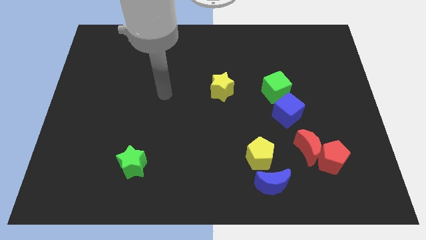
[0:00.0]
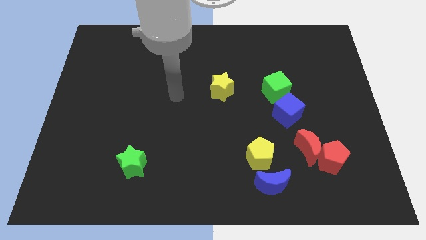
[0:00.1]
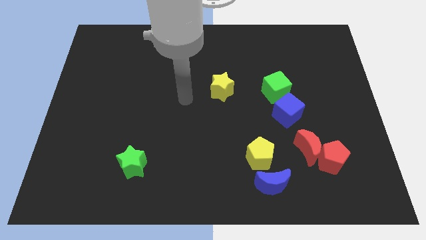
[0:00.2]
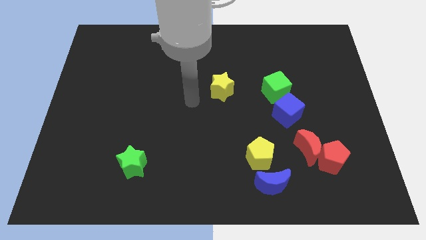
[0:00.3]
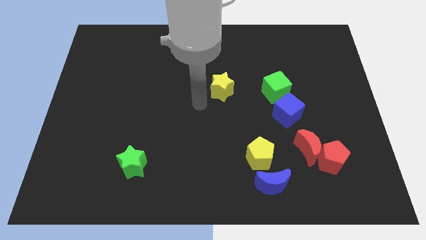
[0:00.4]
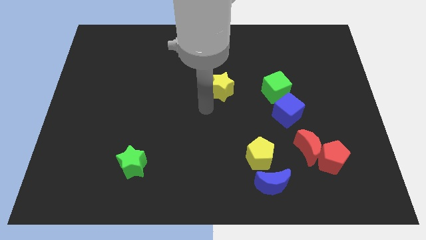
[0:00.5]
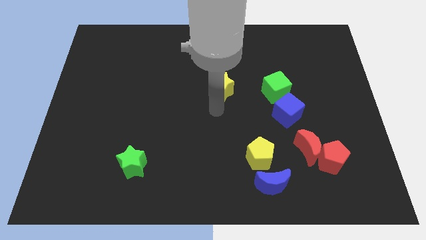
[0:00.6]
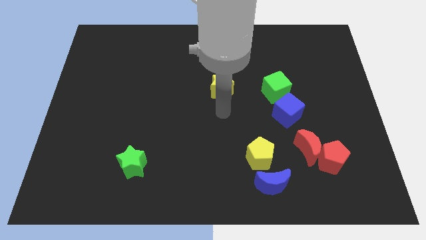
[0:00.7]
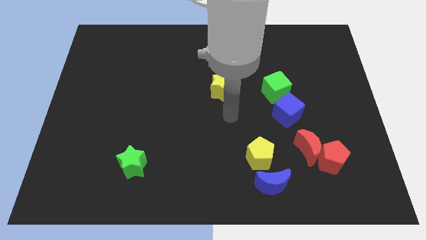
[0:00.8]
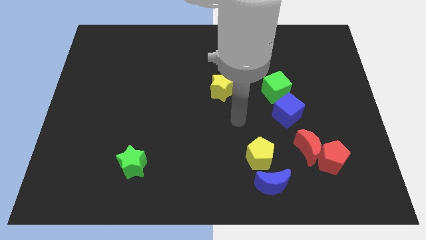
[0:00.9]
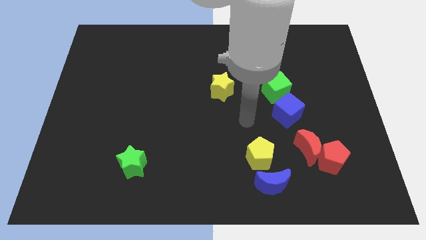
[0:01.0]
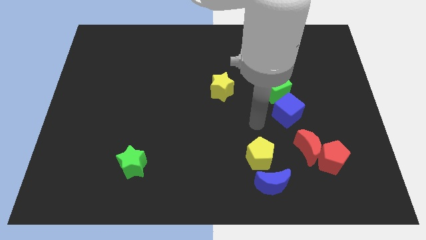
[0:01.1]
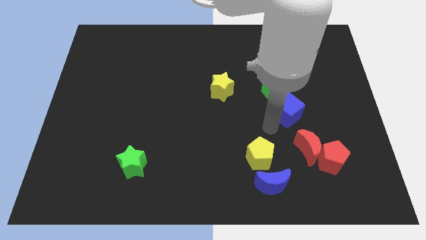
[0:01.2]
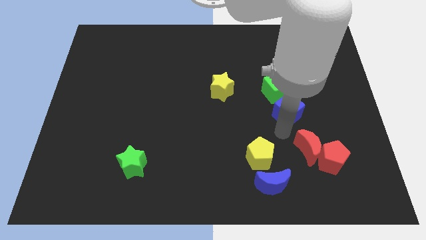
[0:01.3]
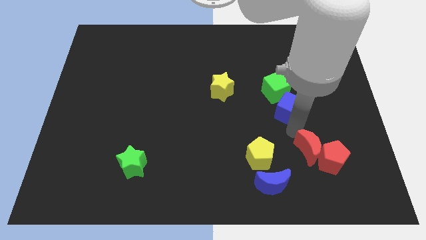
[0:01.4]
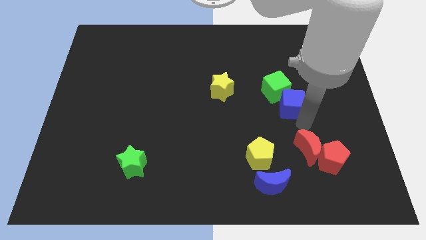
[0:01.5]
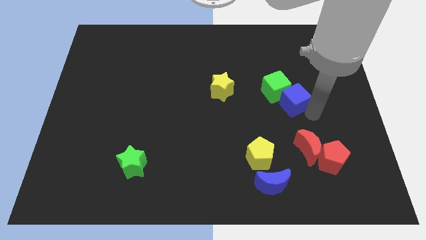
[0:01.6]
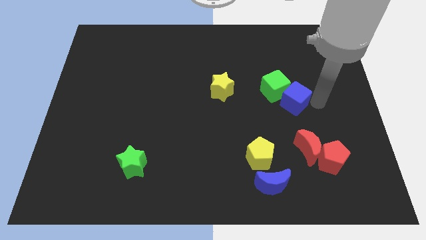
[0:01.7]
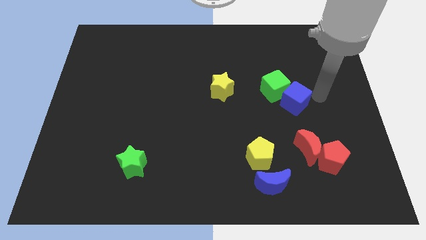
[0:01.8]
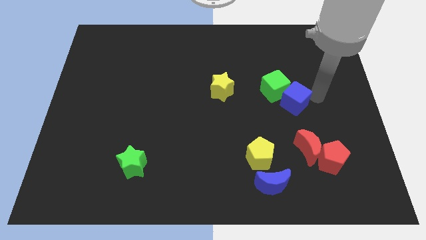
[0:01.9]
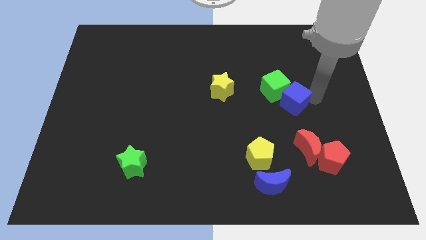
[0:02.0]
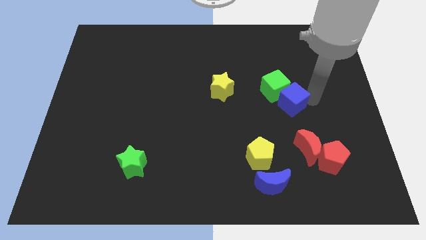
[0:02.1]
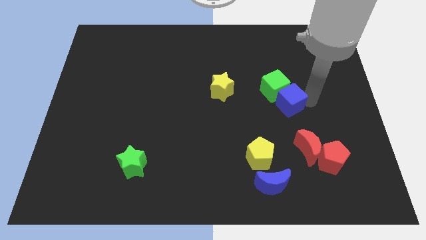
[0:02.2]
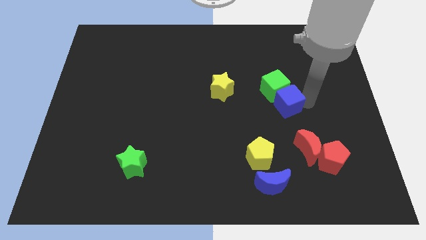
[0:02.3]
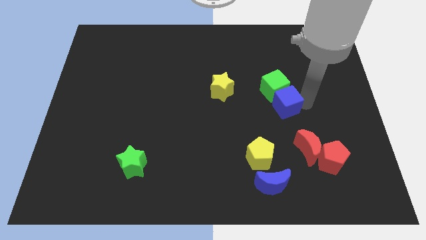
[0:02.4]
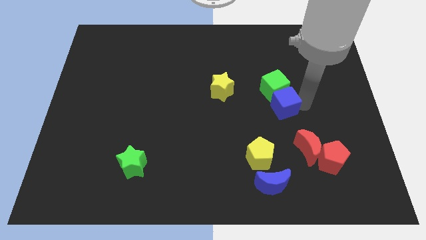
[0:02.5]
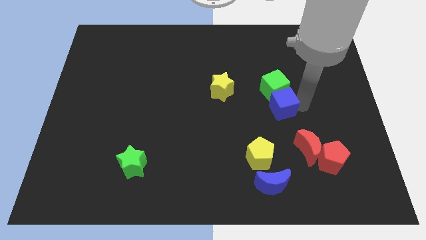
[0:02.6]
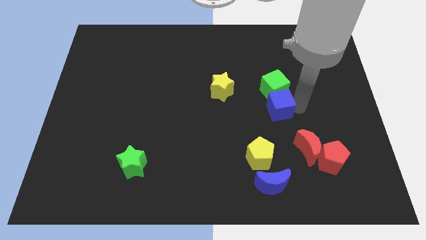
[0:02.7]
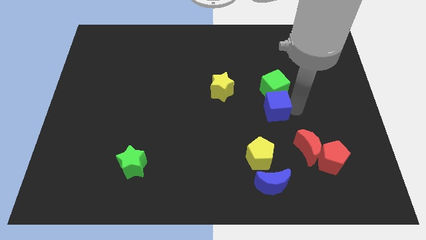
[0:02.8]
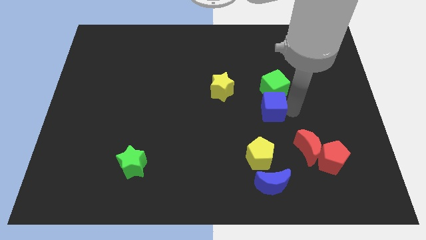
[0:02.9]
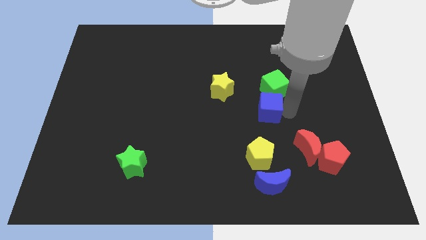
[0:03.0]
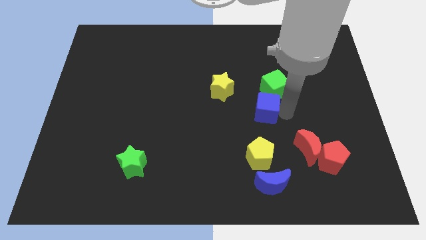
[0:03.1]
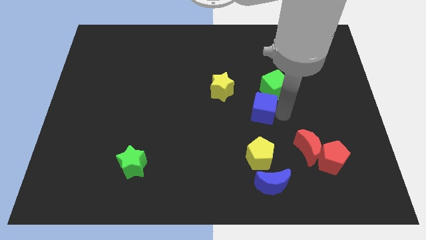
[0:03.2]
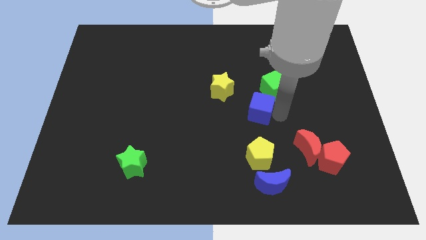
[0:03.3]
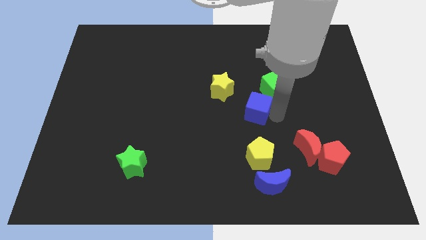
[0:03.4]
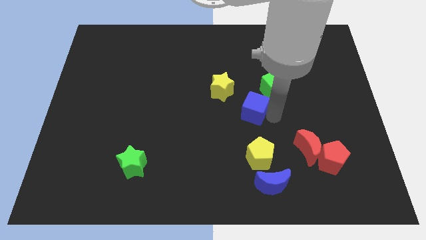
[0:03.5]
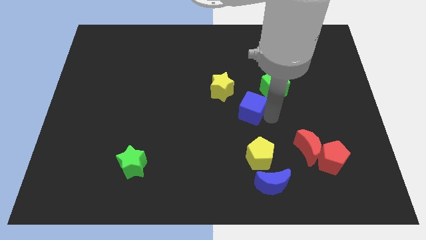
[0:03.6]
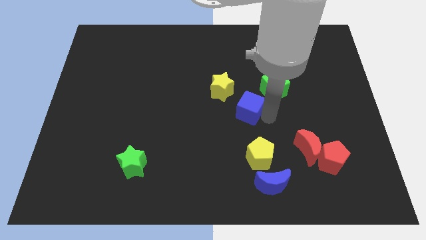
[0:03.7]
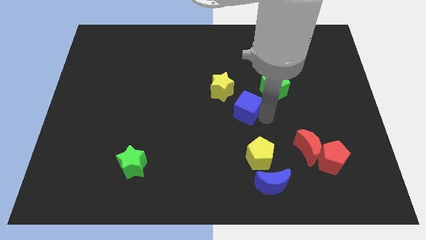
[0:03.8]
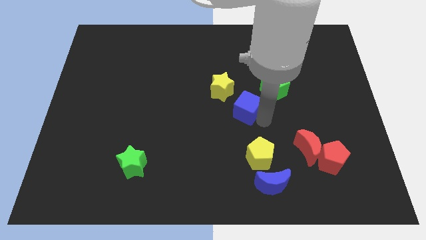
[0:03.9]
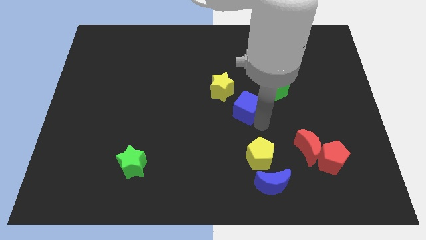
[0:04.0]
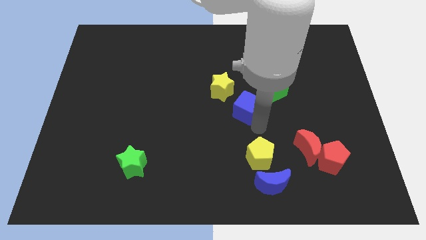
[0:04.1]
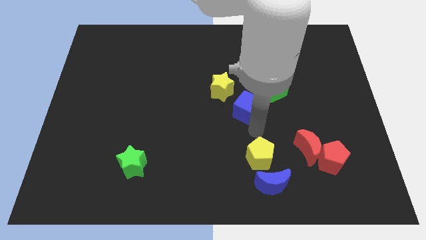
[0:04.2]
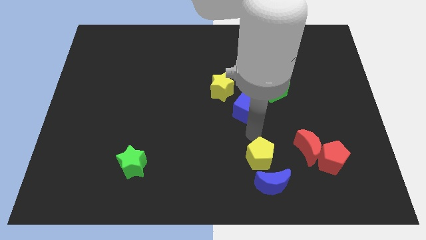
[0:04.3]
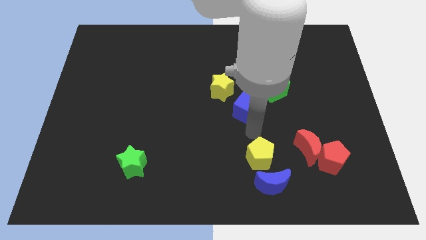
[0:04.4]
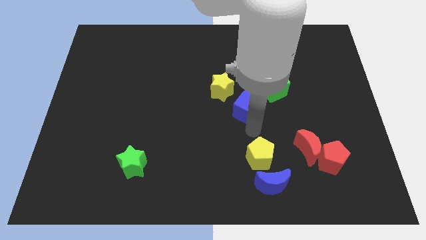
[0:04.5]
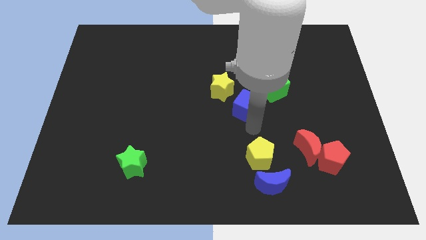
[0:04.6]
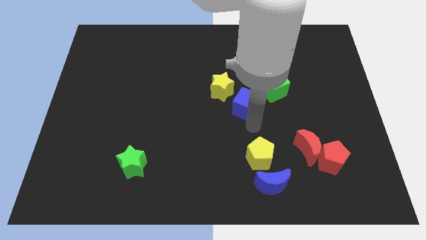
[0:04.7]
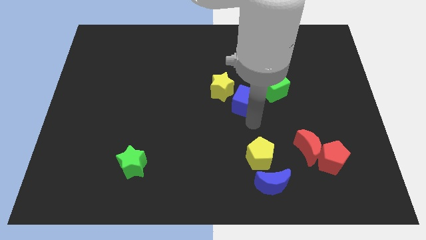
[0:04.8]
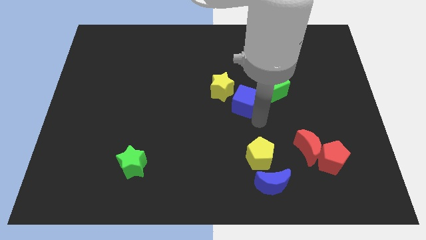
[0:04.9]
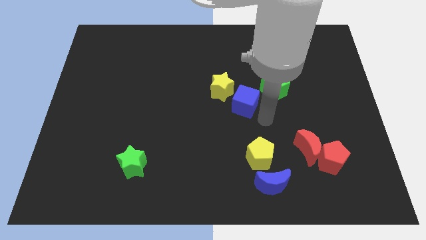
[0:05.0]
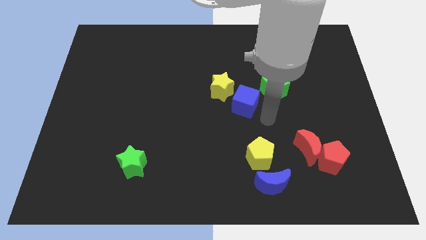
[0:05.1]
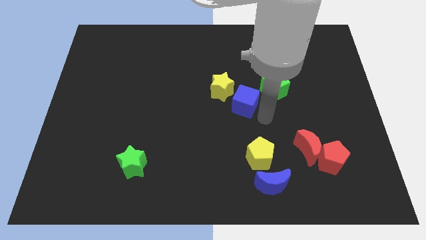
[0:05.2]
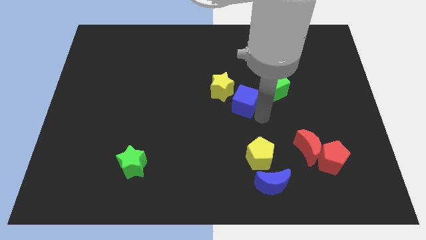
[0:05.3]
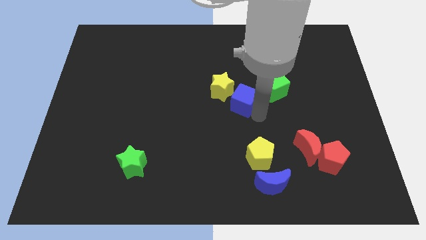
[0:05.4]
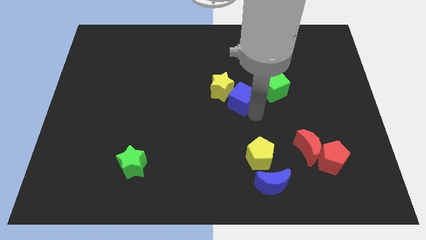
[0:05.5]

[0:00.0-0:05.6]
move the blue cube to the yellow star

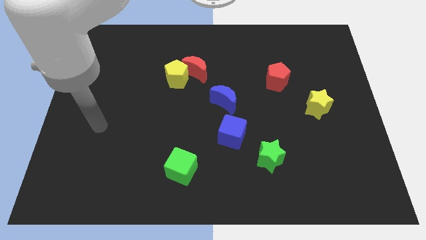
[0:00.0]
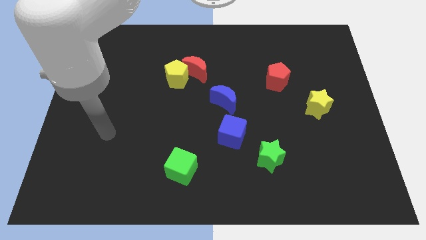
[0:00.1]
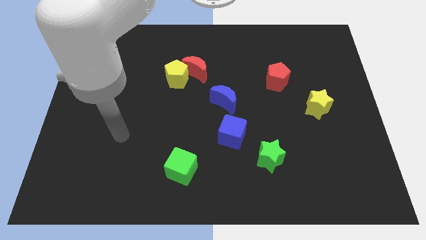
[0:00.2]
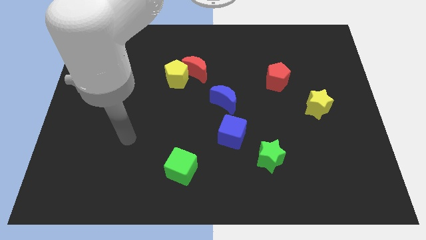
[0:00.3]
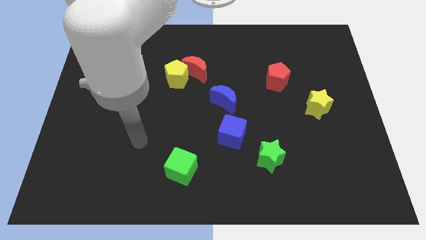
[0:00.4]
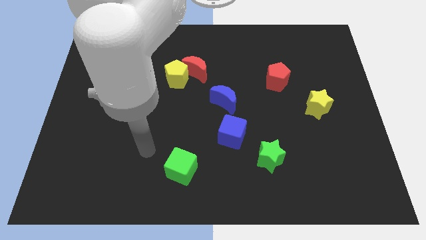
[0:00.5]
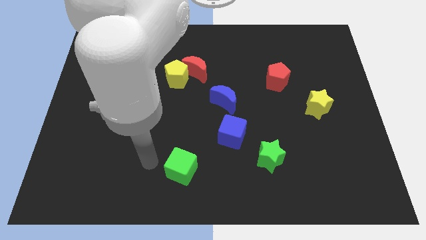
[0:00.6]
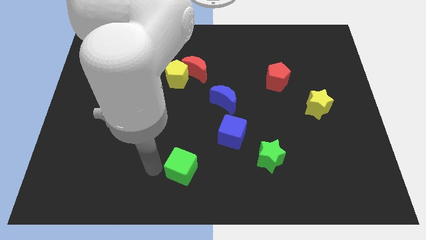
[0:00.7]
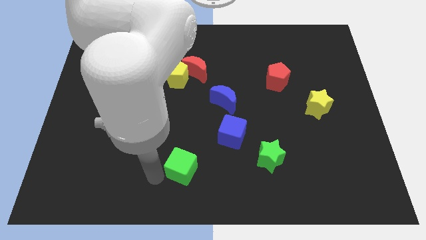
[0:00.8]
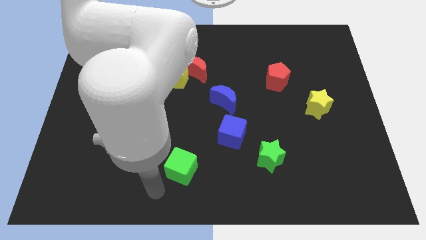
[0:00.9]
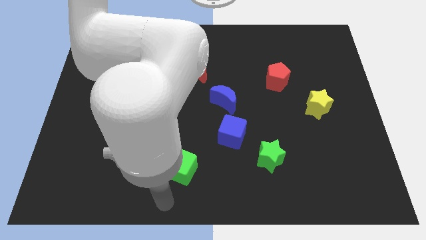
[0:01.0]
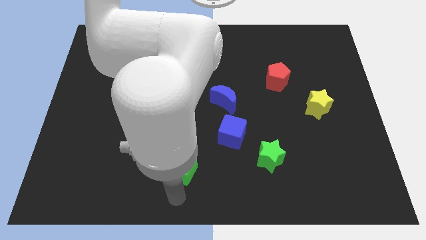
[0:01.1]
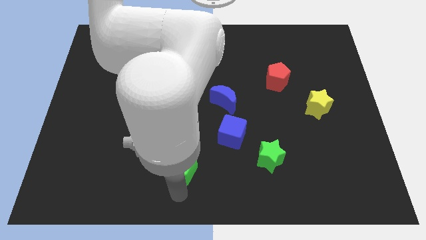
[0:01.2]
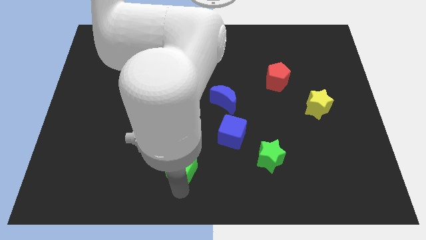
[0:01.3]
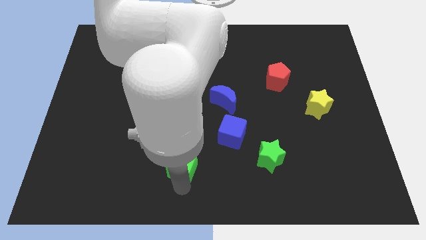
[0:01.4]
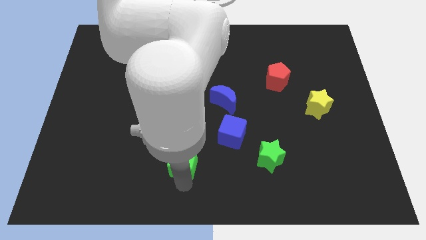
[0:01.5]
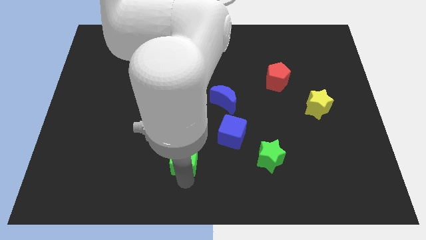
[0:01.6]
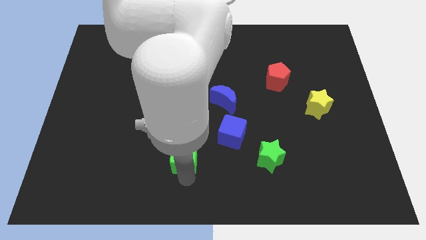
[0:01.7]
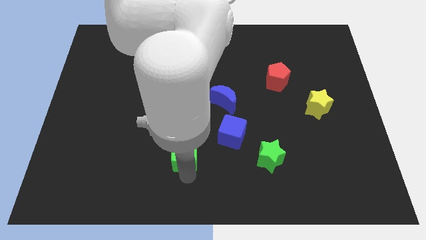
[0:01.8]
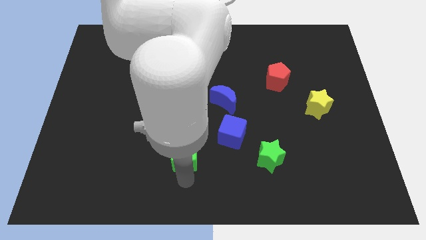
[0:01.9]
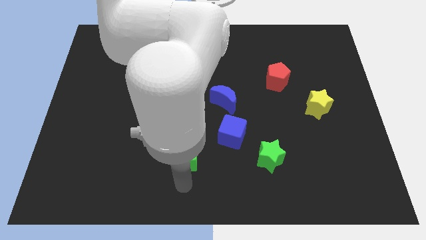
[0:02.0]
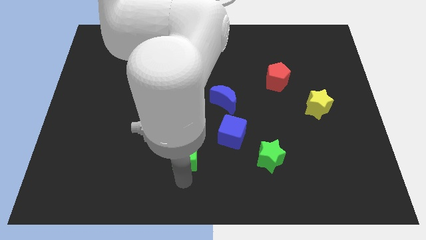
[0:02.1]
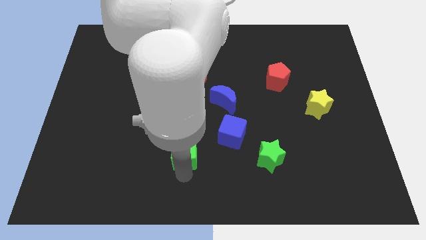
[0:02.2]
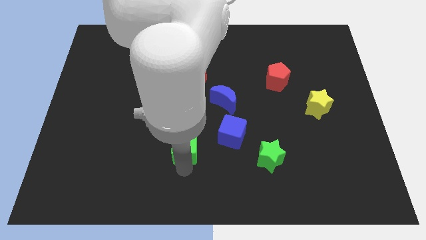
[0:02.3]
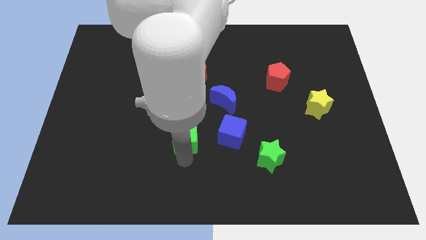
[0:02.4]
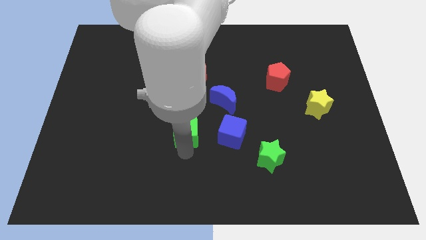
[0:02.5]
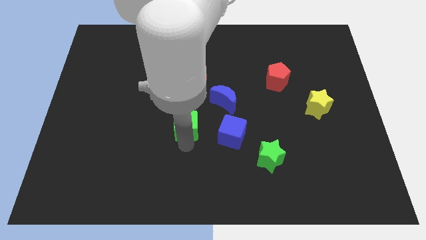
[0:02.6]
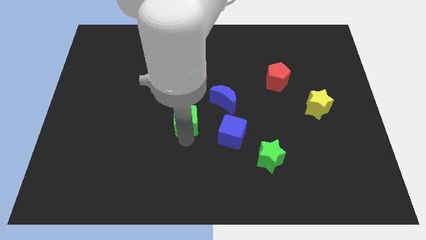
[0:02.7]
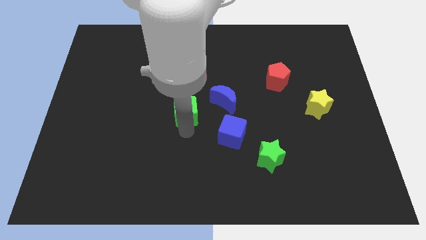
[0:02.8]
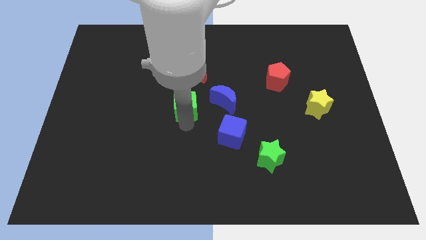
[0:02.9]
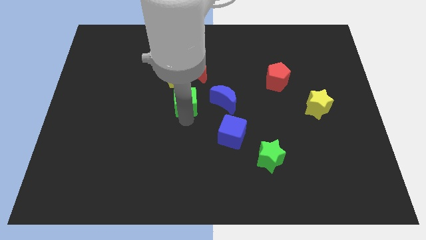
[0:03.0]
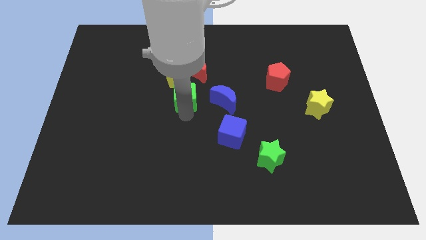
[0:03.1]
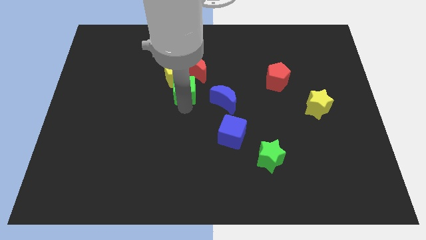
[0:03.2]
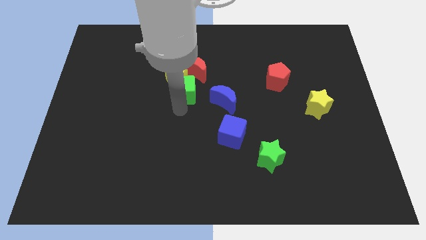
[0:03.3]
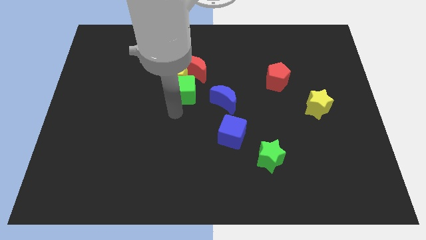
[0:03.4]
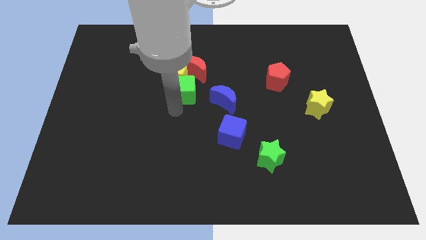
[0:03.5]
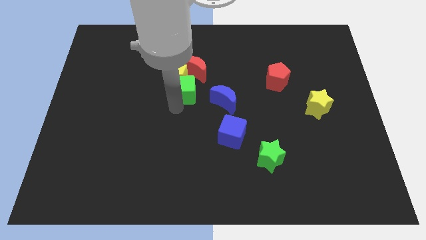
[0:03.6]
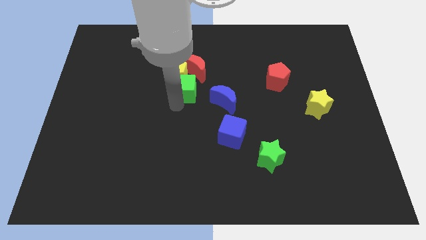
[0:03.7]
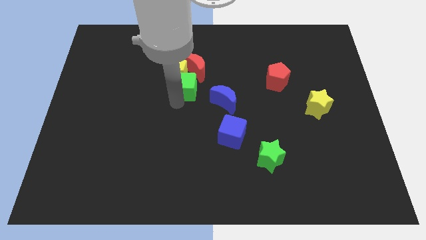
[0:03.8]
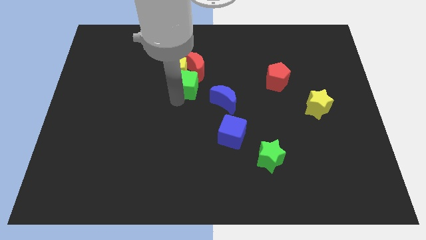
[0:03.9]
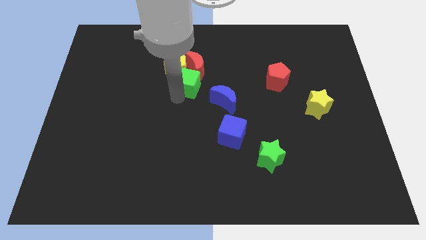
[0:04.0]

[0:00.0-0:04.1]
move the green cube towards the red moon
